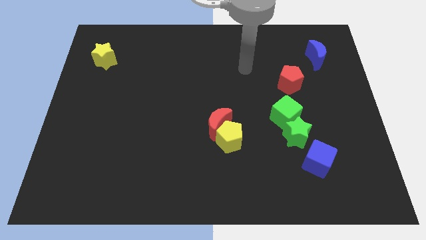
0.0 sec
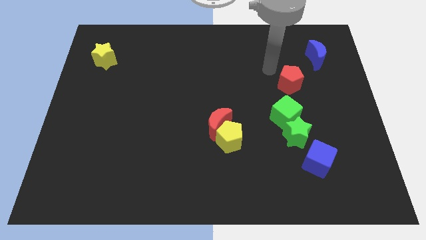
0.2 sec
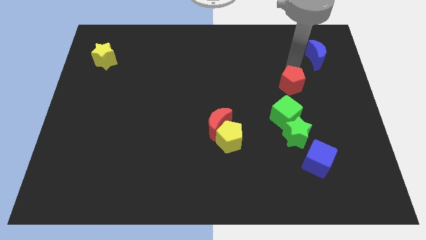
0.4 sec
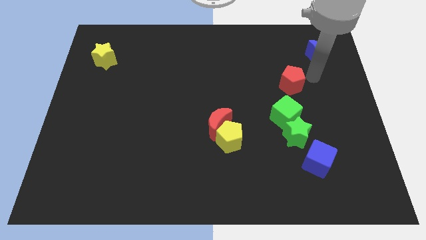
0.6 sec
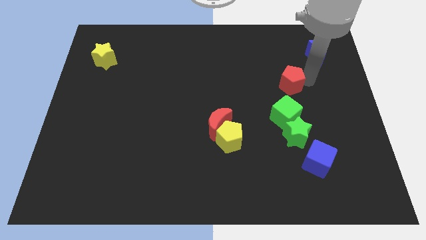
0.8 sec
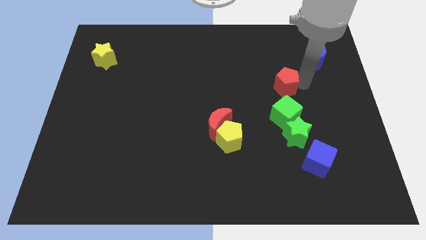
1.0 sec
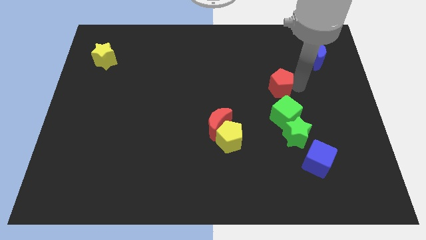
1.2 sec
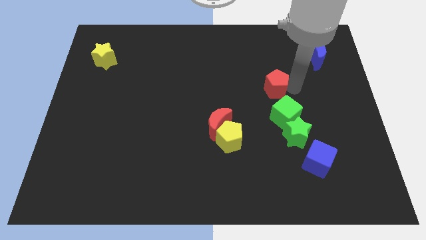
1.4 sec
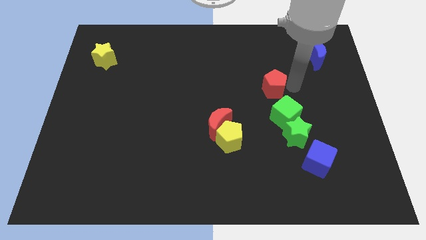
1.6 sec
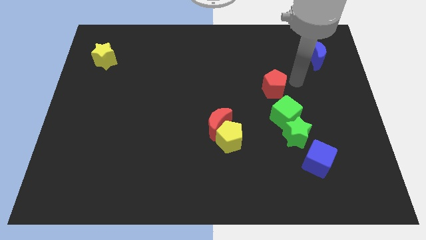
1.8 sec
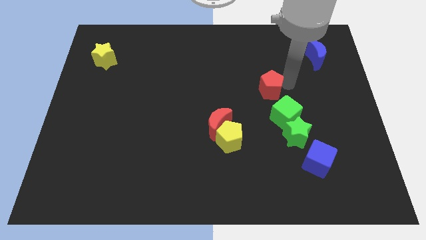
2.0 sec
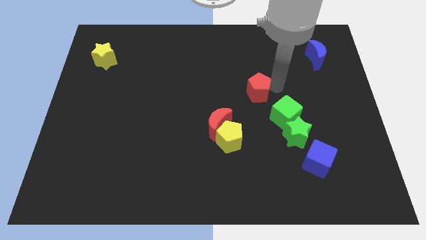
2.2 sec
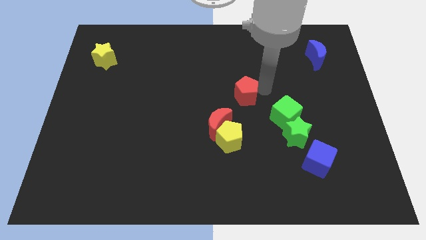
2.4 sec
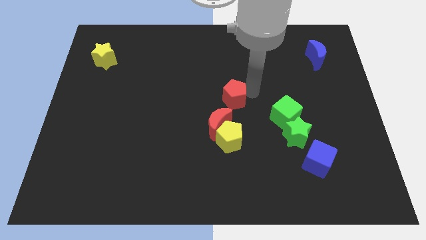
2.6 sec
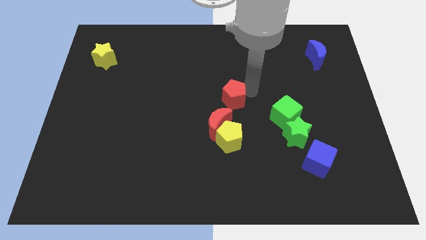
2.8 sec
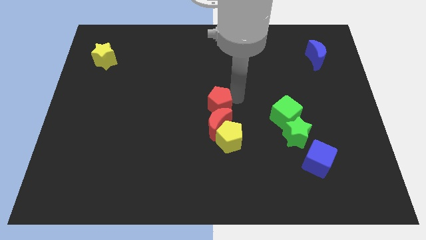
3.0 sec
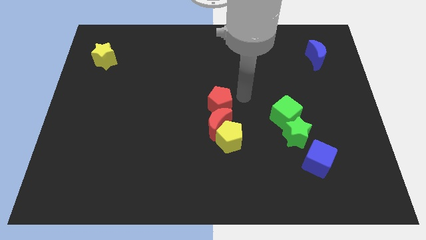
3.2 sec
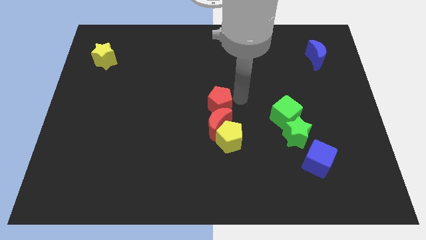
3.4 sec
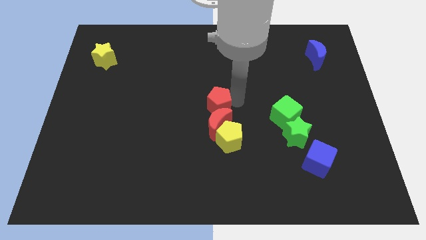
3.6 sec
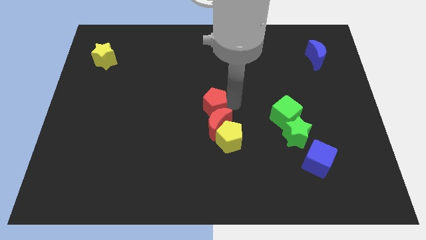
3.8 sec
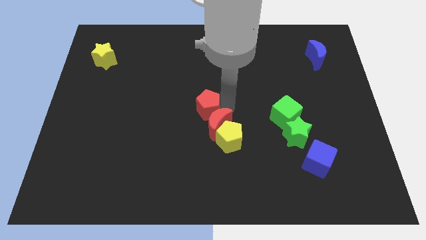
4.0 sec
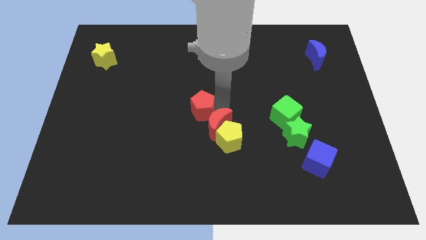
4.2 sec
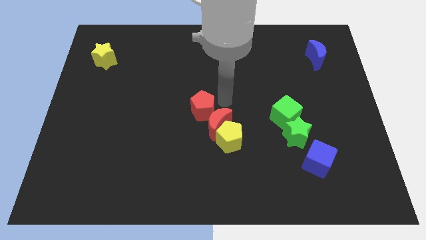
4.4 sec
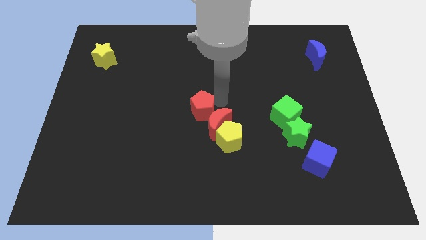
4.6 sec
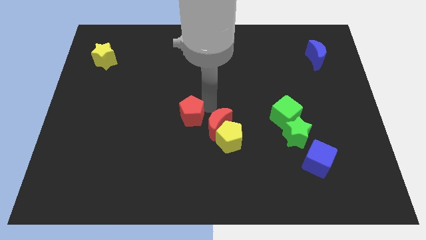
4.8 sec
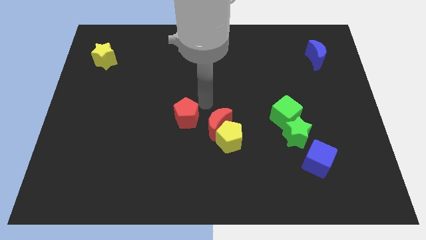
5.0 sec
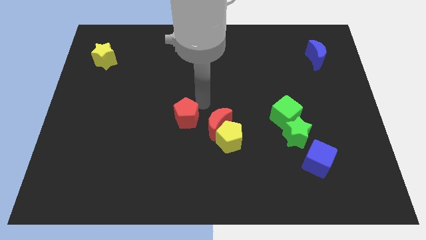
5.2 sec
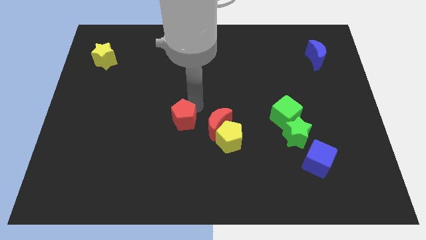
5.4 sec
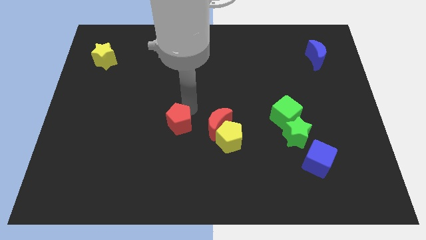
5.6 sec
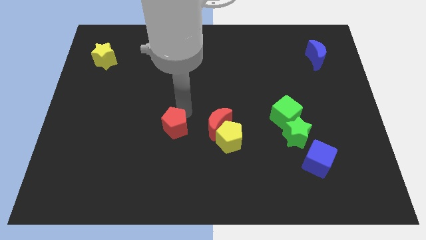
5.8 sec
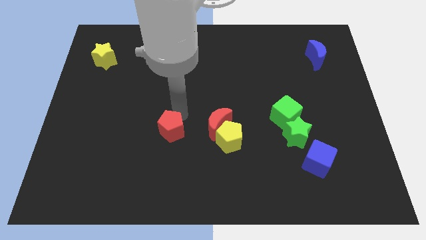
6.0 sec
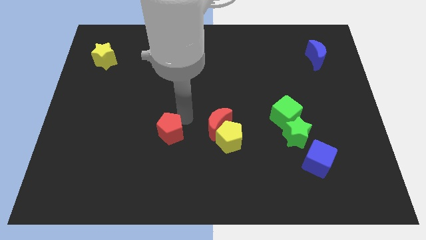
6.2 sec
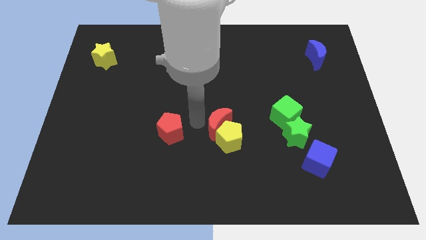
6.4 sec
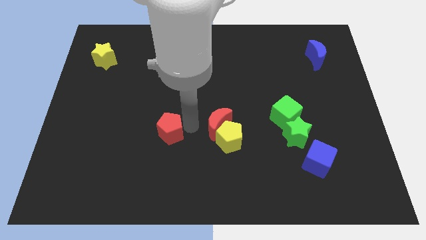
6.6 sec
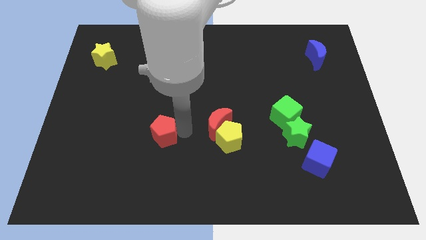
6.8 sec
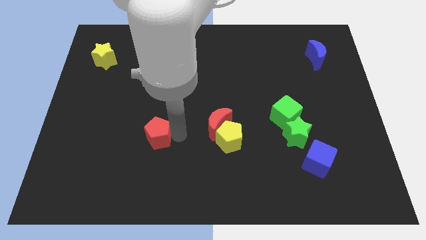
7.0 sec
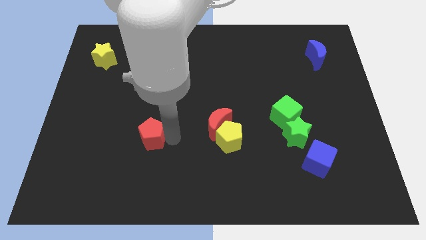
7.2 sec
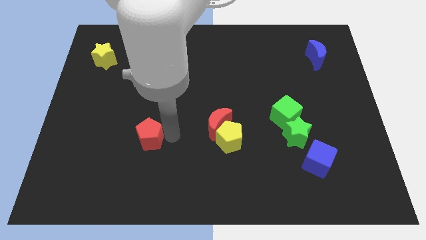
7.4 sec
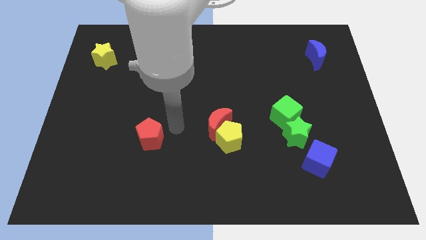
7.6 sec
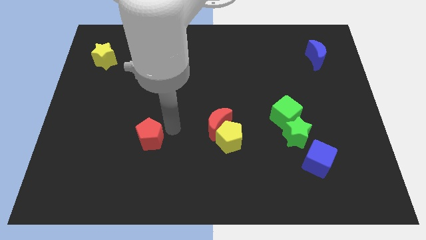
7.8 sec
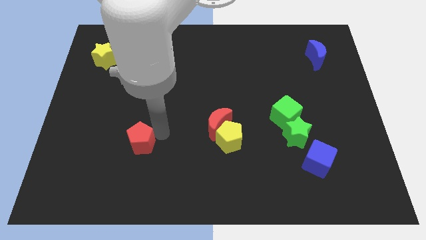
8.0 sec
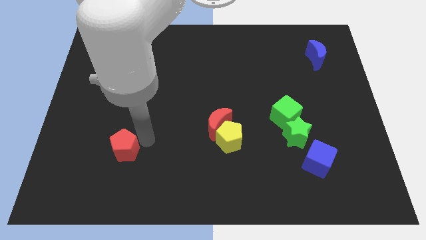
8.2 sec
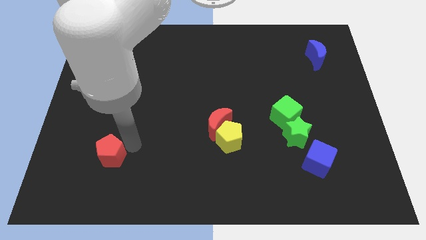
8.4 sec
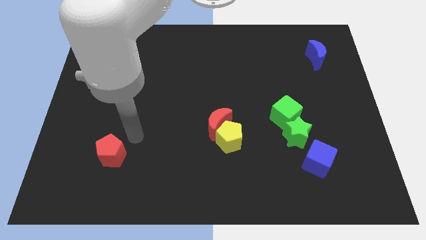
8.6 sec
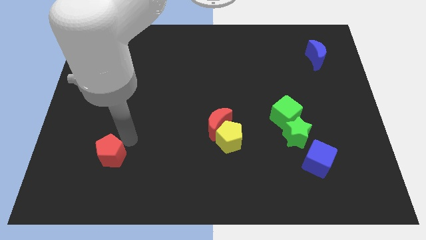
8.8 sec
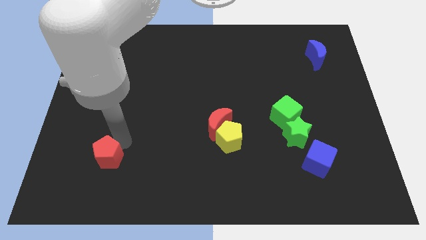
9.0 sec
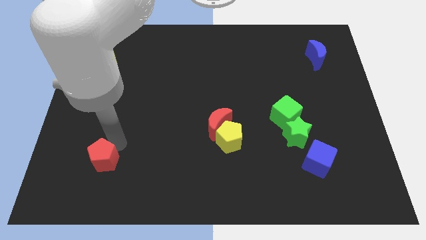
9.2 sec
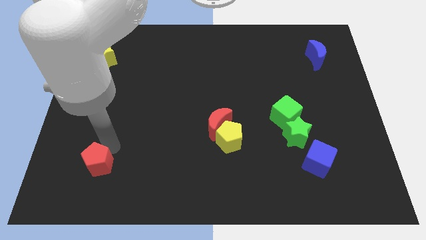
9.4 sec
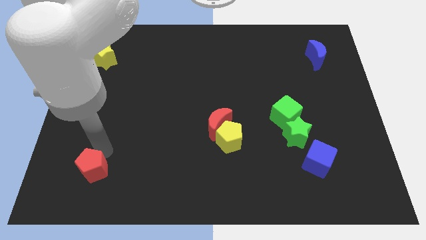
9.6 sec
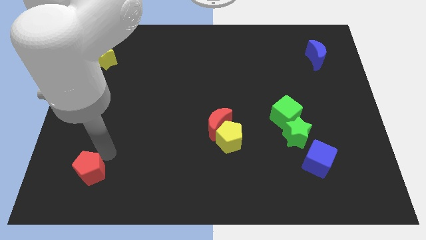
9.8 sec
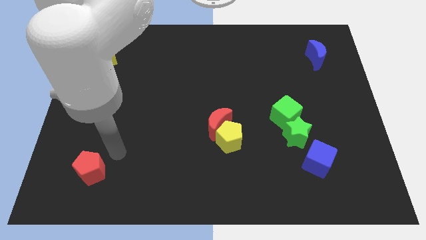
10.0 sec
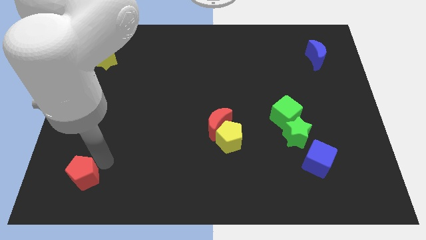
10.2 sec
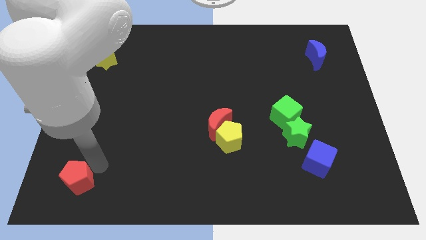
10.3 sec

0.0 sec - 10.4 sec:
slide the red pentagon to the lower left corner

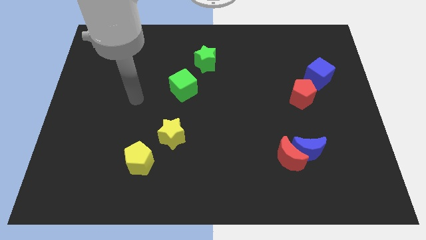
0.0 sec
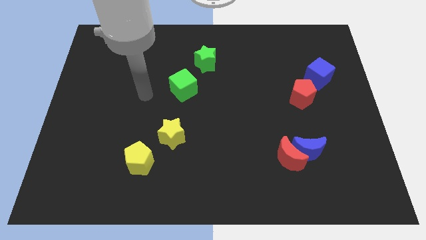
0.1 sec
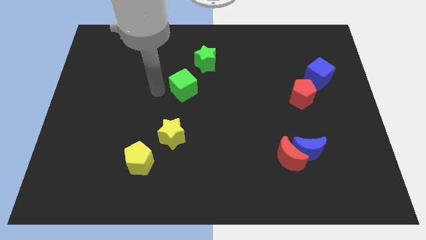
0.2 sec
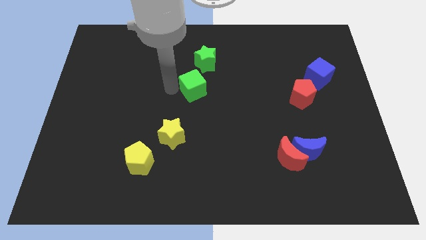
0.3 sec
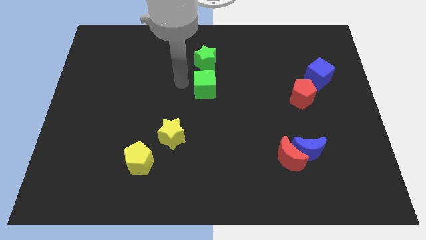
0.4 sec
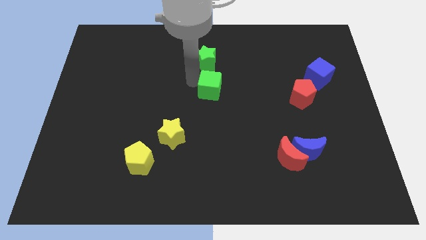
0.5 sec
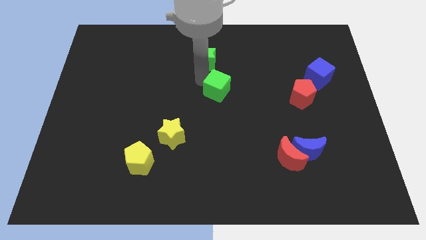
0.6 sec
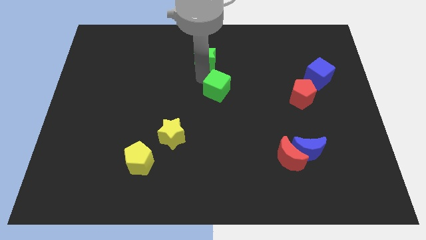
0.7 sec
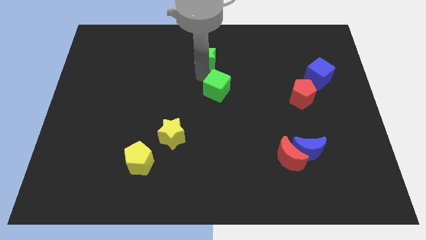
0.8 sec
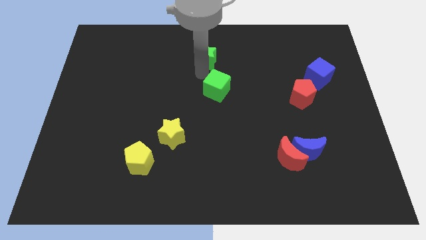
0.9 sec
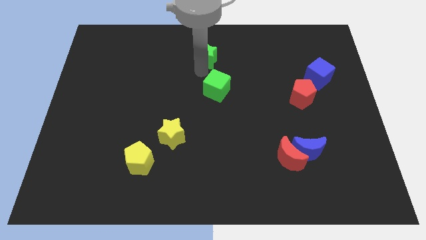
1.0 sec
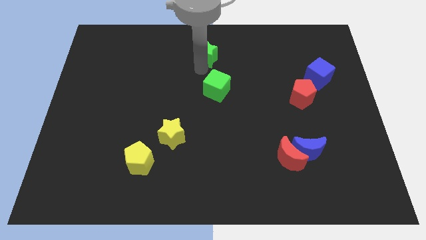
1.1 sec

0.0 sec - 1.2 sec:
slide the green star to the towards your base
